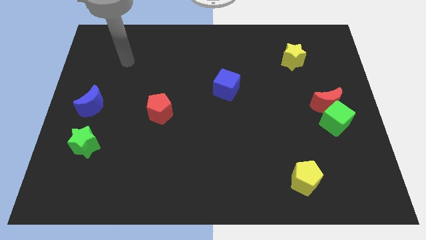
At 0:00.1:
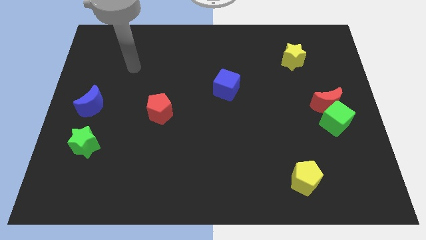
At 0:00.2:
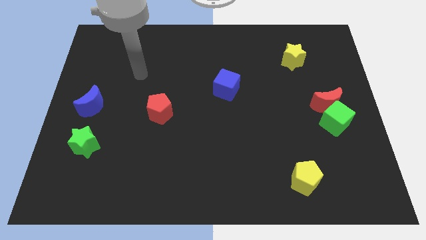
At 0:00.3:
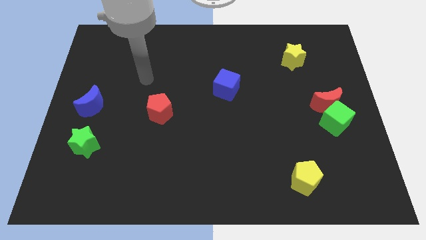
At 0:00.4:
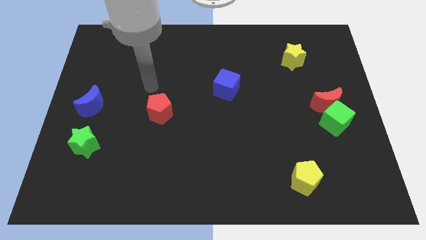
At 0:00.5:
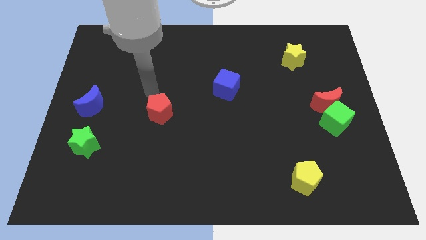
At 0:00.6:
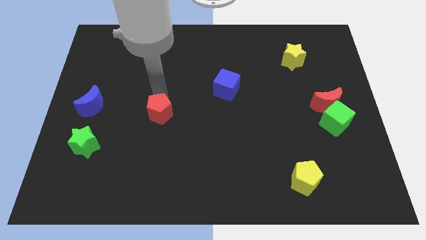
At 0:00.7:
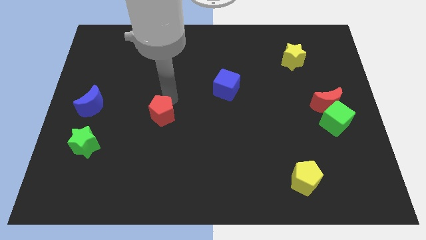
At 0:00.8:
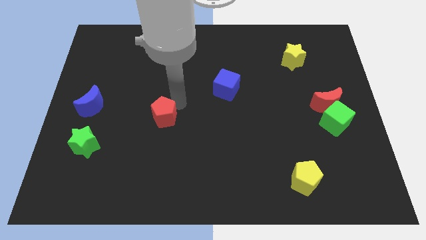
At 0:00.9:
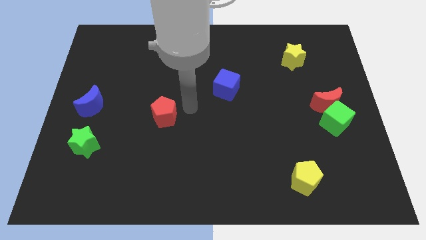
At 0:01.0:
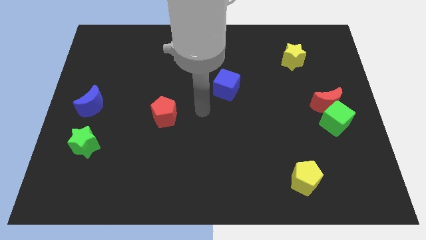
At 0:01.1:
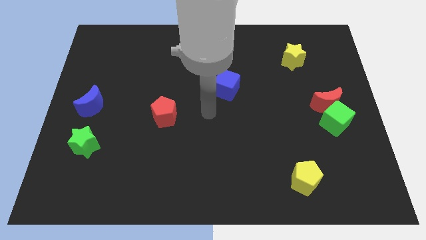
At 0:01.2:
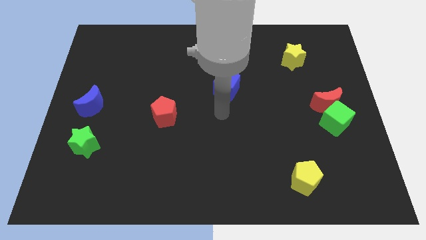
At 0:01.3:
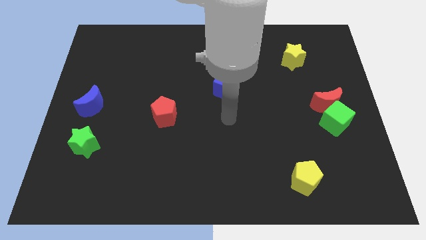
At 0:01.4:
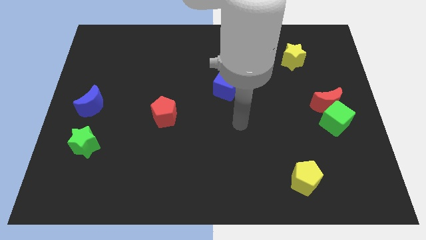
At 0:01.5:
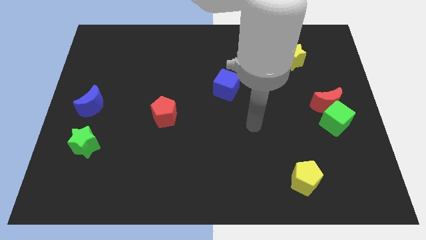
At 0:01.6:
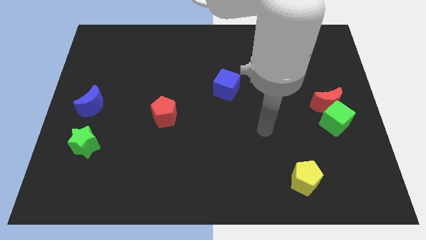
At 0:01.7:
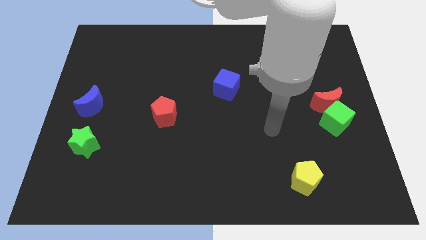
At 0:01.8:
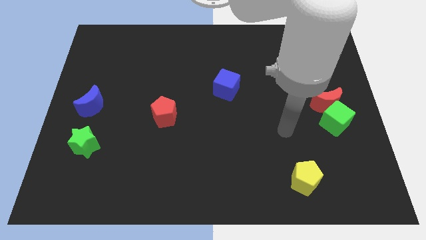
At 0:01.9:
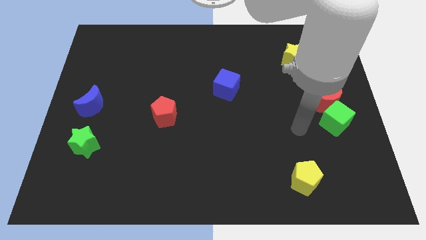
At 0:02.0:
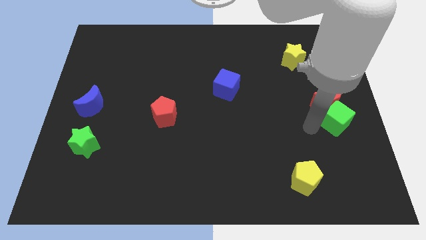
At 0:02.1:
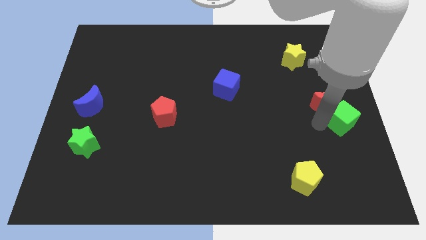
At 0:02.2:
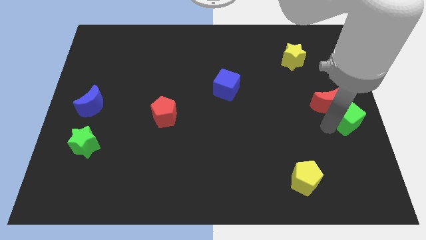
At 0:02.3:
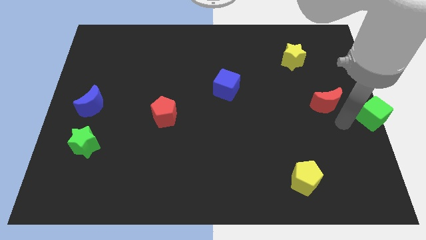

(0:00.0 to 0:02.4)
separate the red moon from the green cube

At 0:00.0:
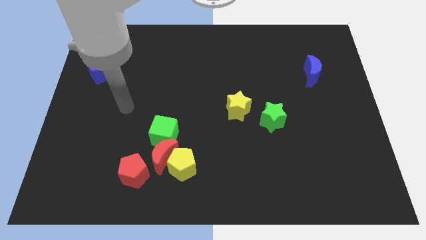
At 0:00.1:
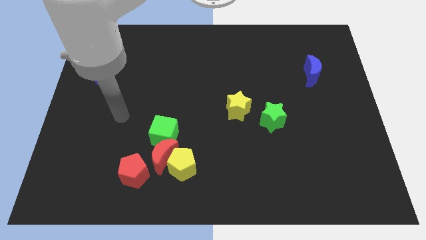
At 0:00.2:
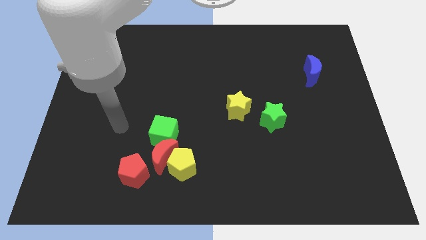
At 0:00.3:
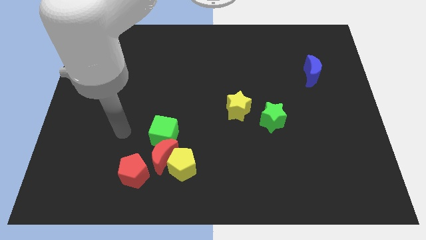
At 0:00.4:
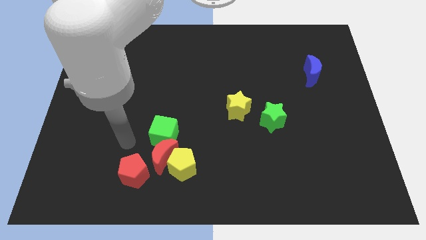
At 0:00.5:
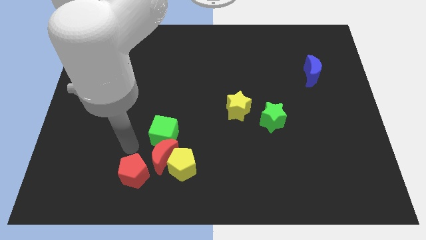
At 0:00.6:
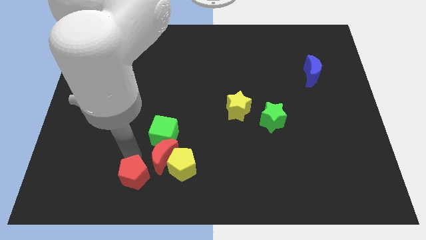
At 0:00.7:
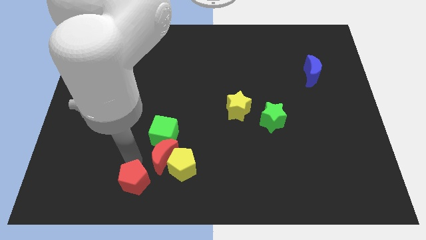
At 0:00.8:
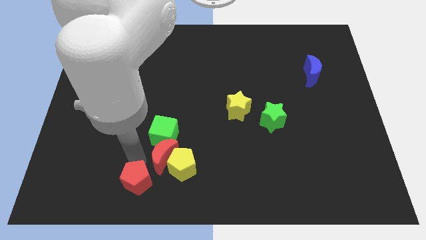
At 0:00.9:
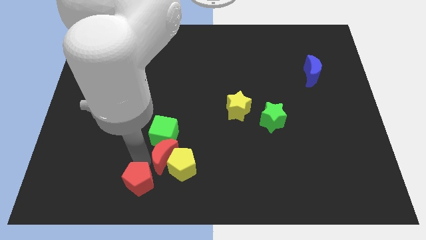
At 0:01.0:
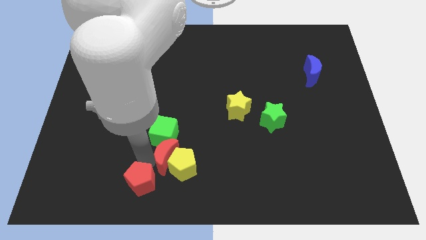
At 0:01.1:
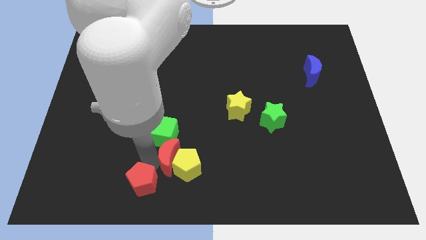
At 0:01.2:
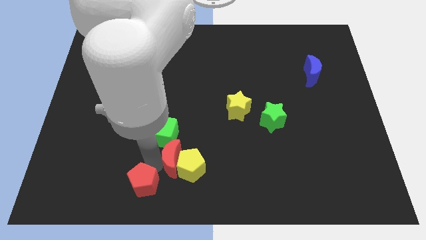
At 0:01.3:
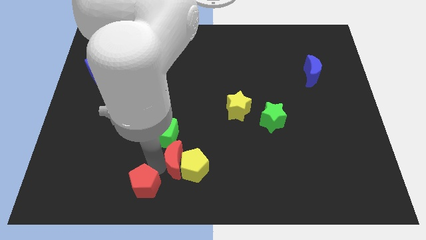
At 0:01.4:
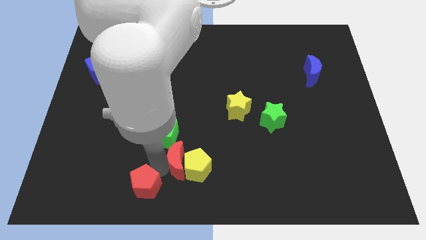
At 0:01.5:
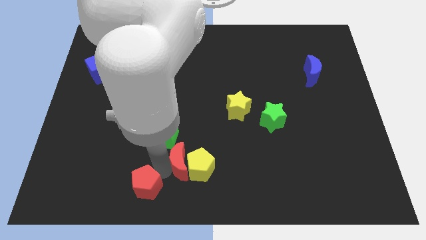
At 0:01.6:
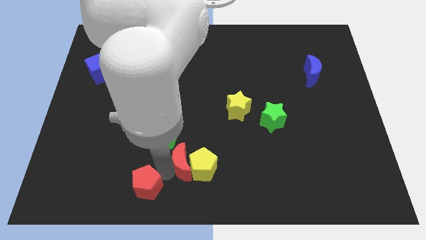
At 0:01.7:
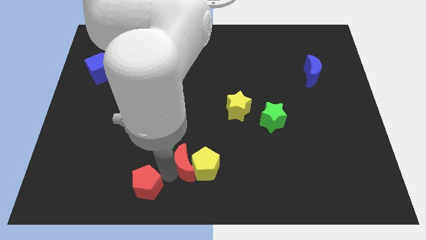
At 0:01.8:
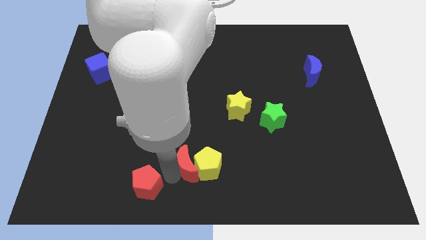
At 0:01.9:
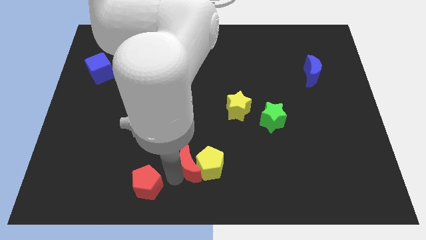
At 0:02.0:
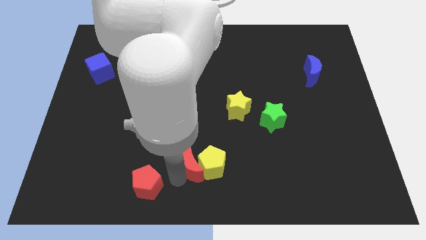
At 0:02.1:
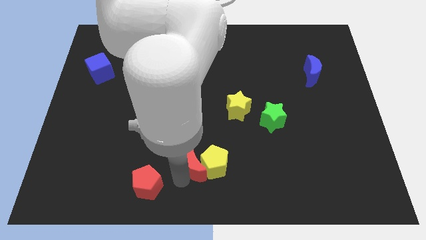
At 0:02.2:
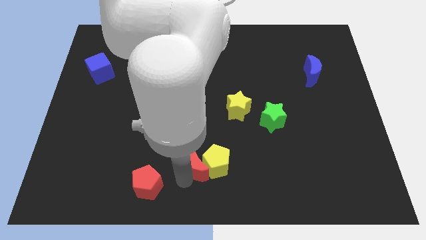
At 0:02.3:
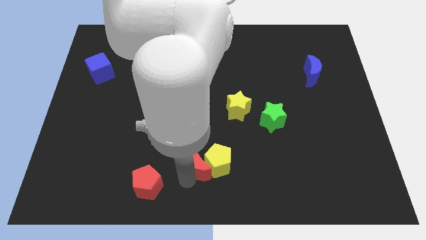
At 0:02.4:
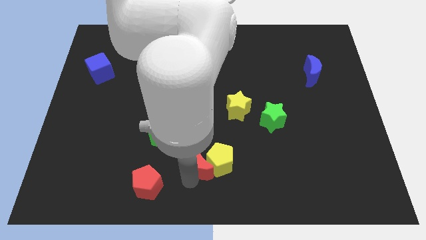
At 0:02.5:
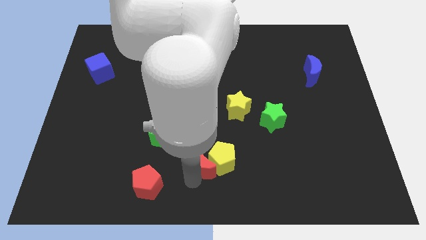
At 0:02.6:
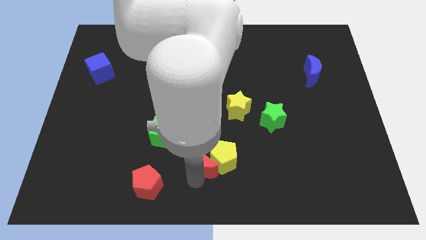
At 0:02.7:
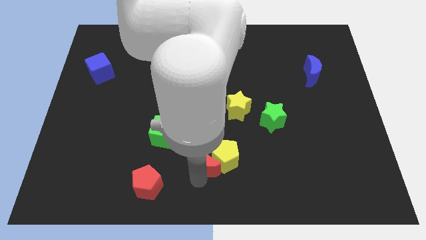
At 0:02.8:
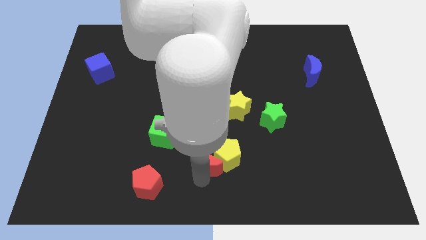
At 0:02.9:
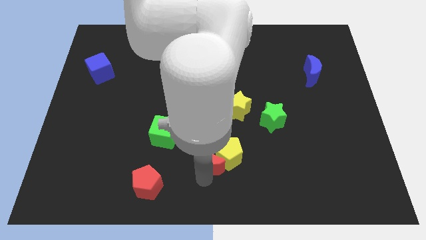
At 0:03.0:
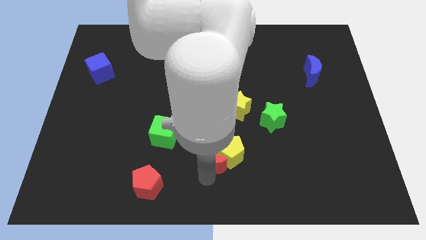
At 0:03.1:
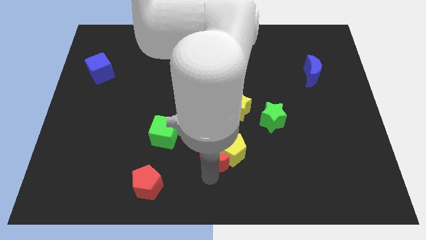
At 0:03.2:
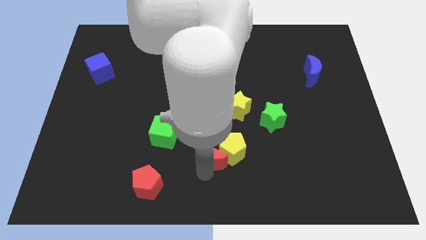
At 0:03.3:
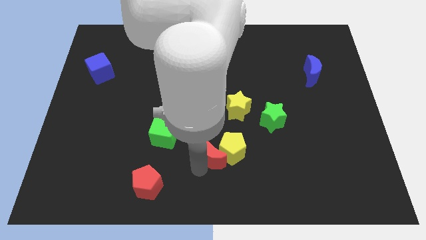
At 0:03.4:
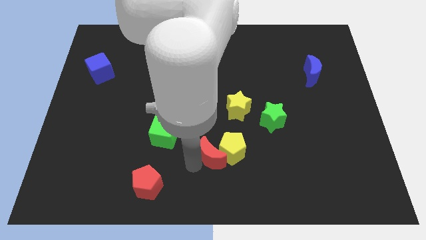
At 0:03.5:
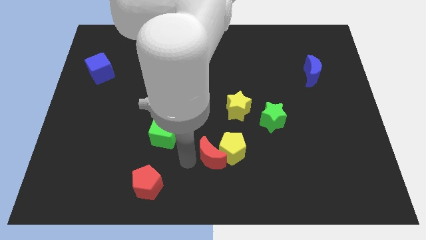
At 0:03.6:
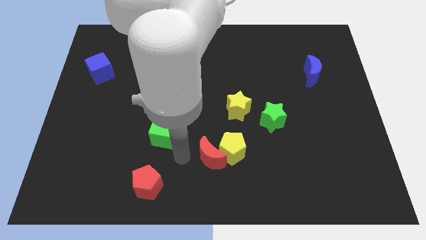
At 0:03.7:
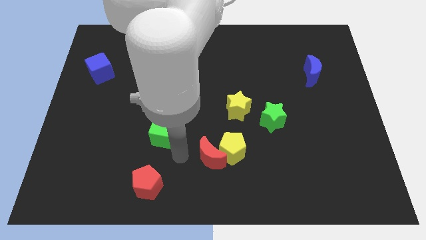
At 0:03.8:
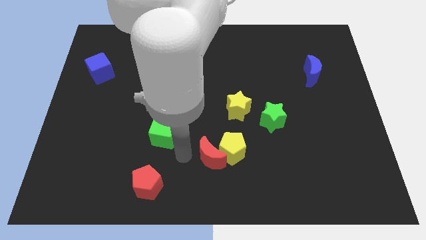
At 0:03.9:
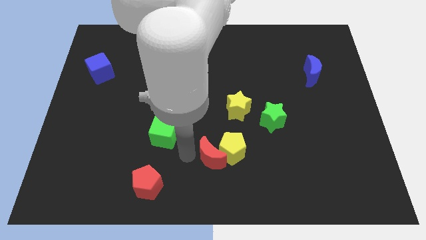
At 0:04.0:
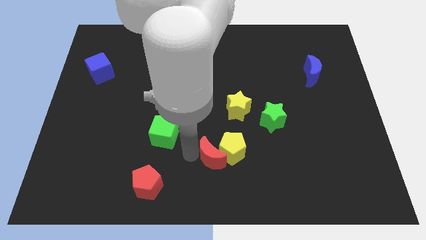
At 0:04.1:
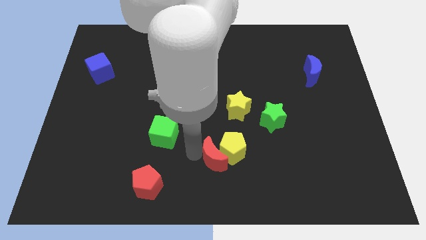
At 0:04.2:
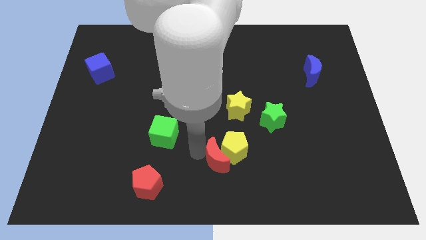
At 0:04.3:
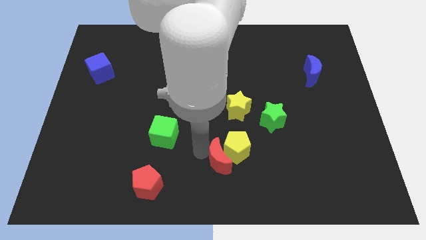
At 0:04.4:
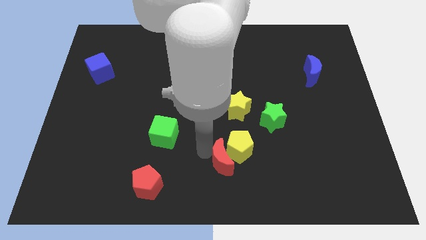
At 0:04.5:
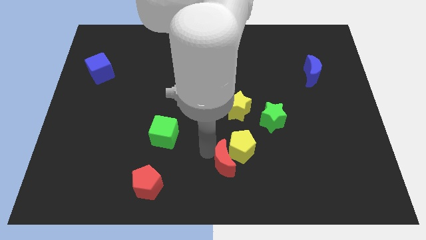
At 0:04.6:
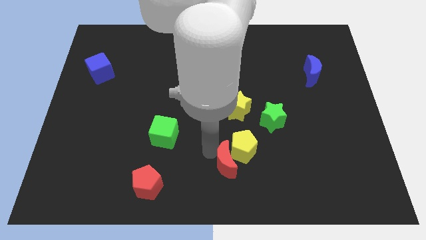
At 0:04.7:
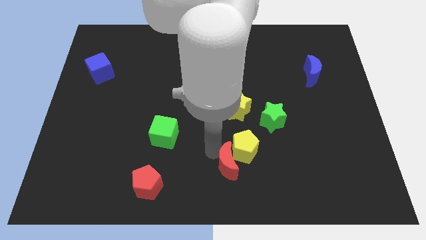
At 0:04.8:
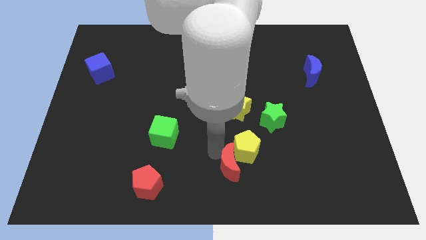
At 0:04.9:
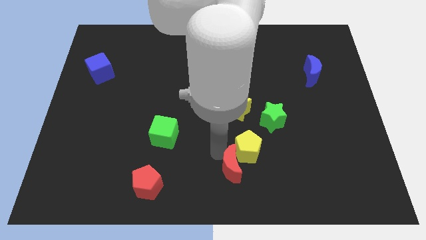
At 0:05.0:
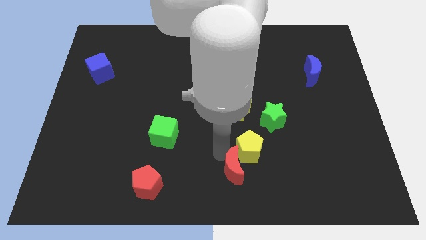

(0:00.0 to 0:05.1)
separate the red moon from the yellow pentagon, green cube, and red pentagon

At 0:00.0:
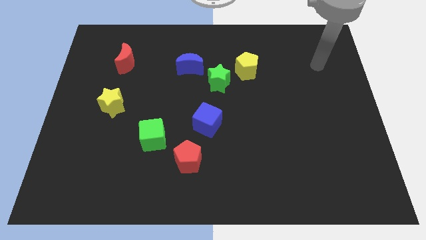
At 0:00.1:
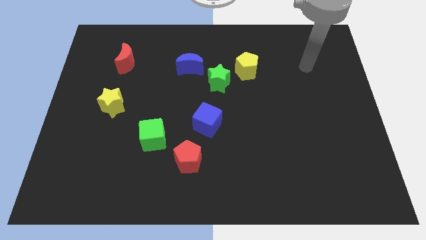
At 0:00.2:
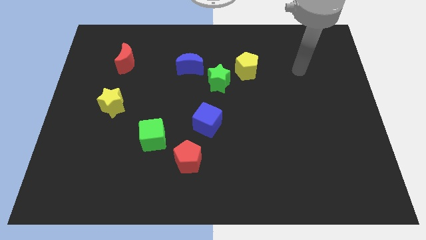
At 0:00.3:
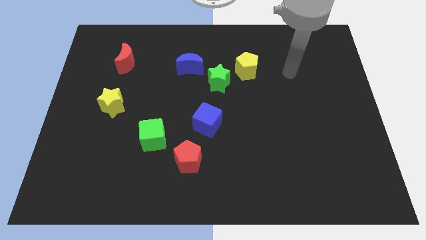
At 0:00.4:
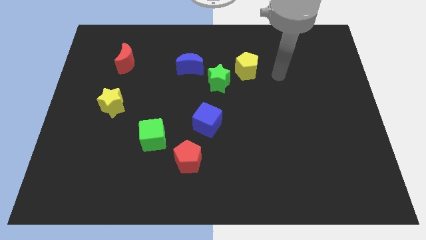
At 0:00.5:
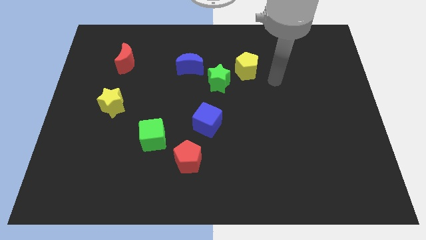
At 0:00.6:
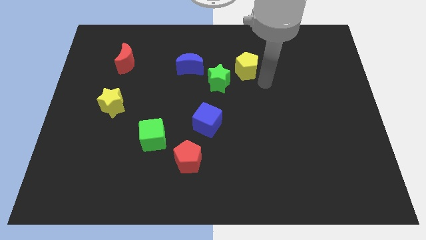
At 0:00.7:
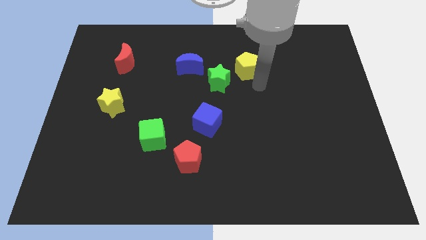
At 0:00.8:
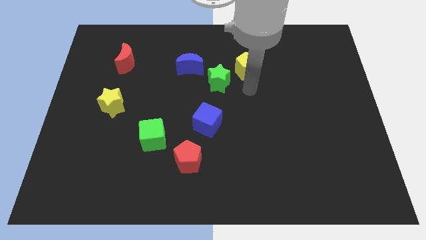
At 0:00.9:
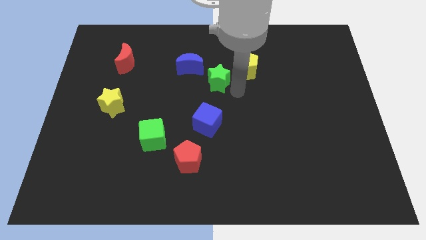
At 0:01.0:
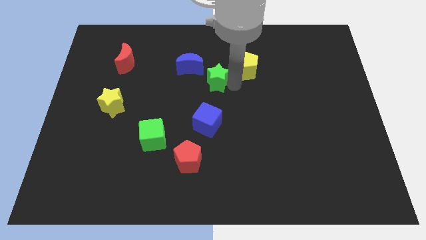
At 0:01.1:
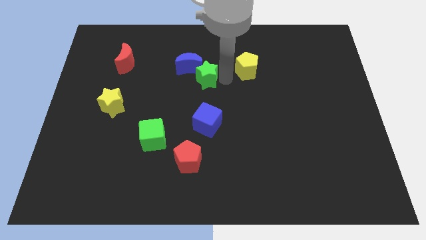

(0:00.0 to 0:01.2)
pull the yellow pentagon apart from the green star

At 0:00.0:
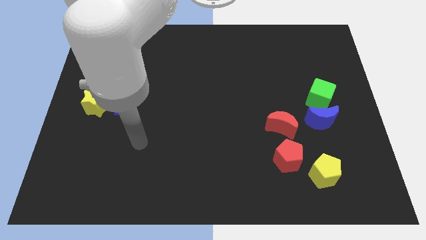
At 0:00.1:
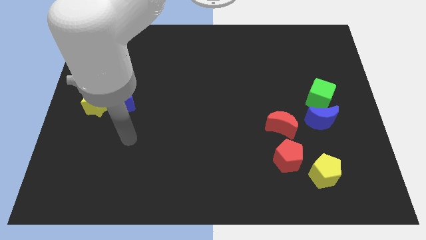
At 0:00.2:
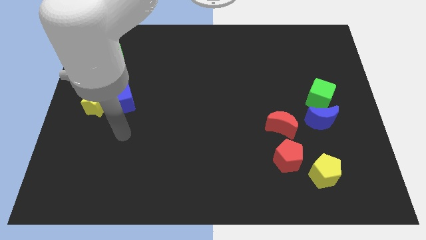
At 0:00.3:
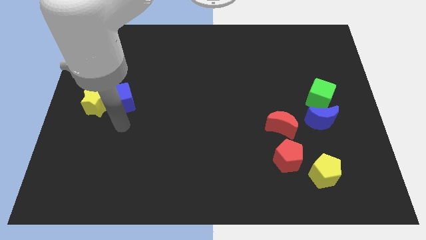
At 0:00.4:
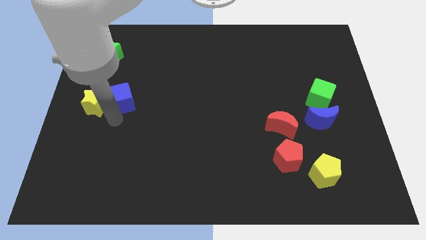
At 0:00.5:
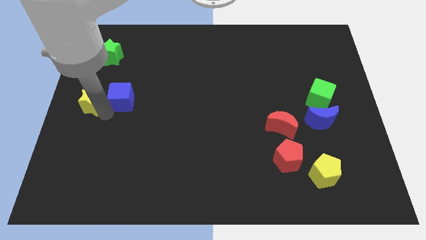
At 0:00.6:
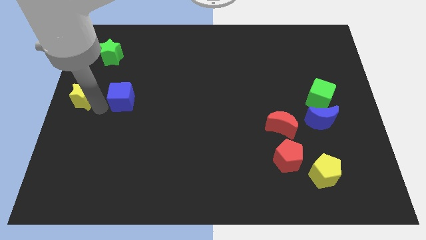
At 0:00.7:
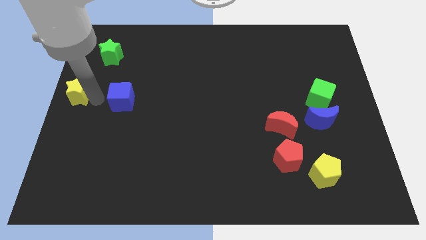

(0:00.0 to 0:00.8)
move the blue cube away from the yellow star
